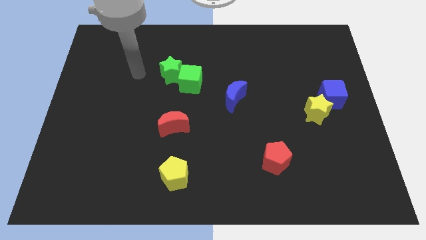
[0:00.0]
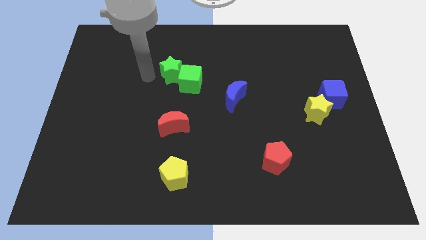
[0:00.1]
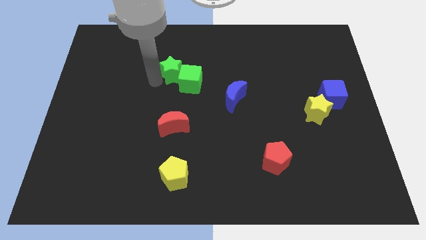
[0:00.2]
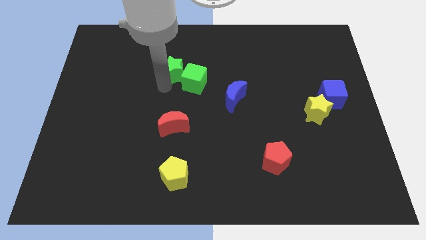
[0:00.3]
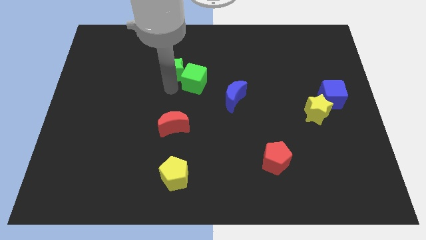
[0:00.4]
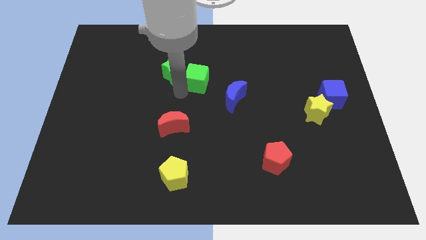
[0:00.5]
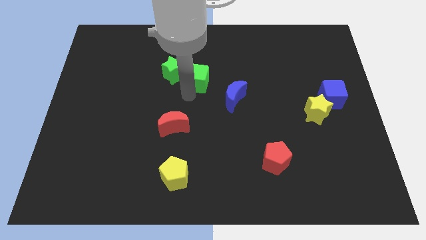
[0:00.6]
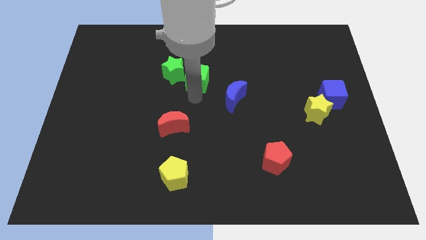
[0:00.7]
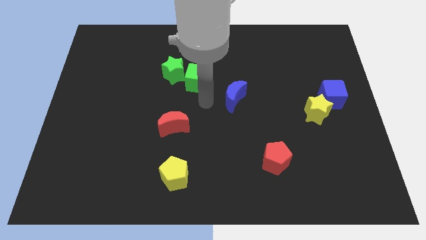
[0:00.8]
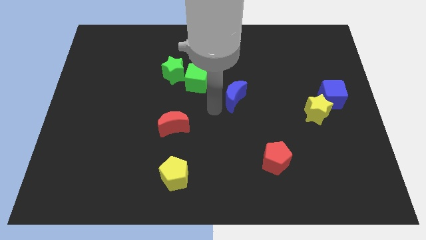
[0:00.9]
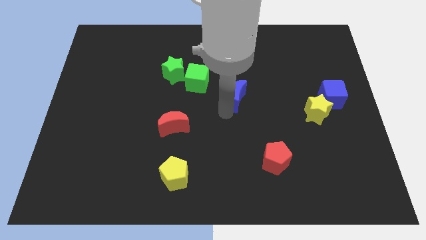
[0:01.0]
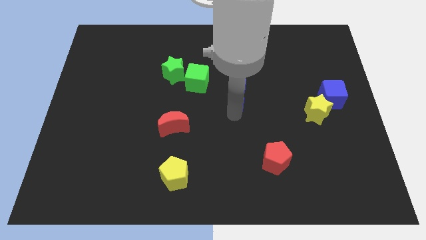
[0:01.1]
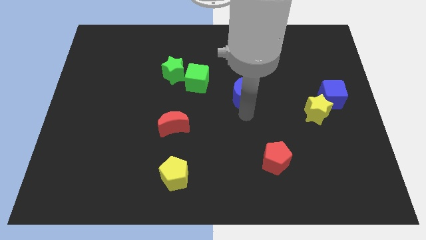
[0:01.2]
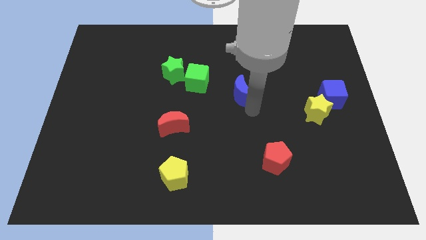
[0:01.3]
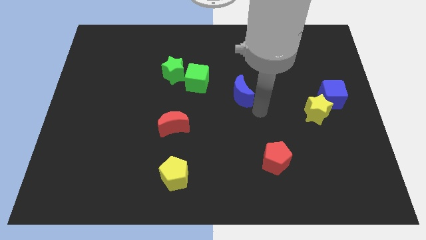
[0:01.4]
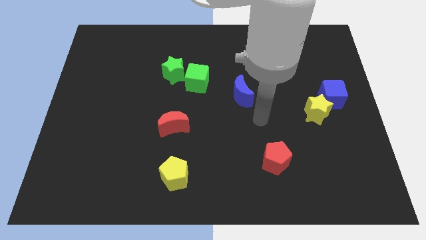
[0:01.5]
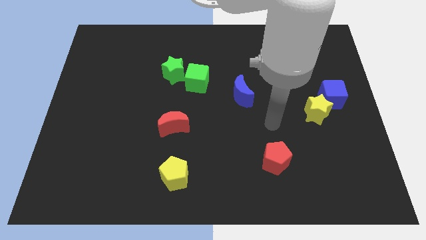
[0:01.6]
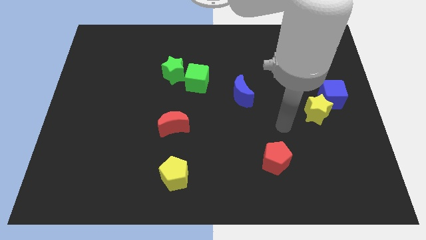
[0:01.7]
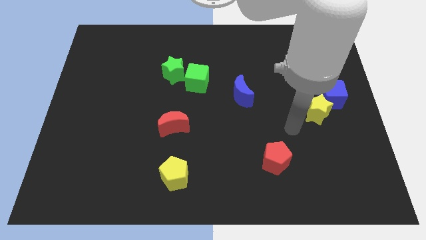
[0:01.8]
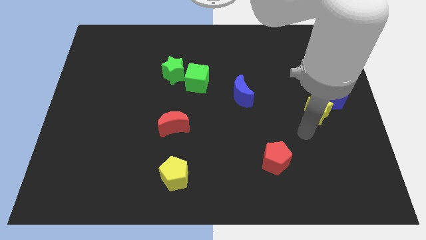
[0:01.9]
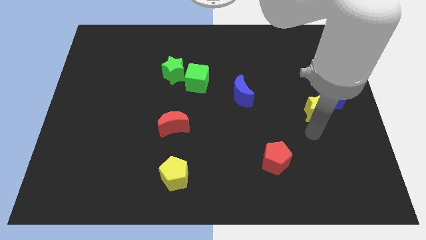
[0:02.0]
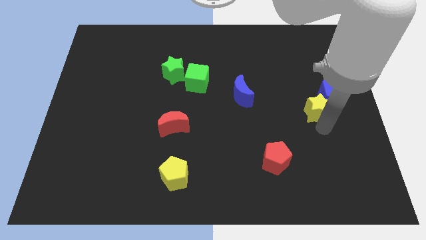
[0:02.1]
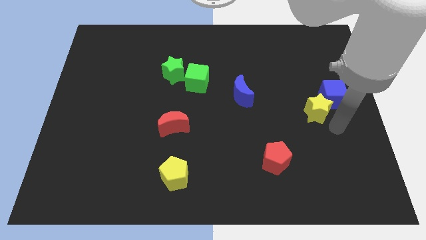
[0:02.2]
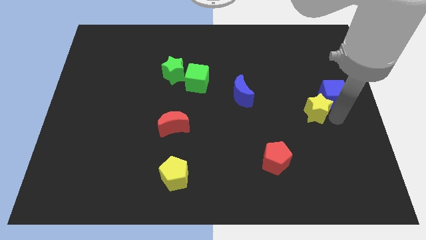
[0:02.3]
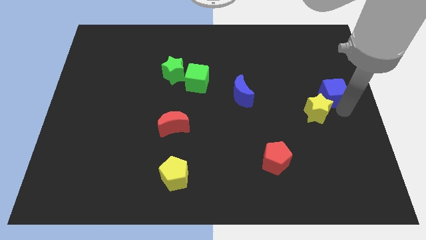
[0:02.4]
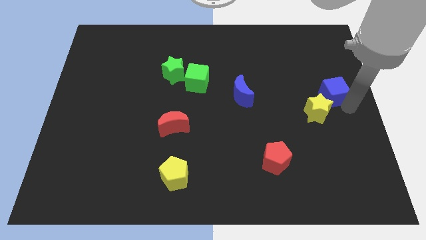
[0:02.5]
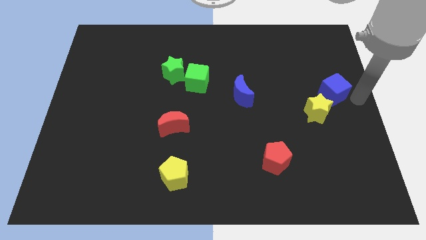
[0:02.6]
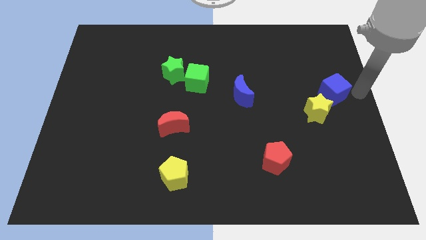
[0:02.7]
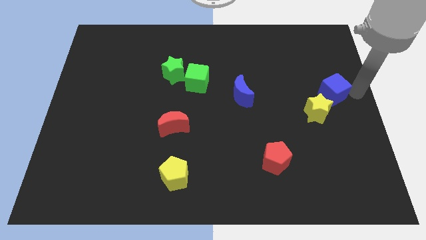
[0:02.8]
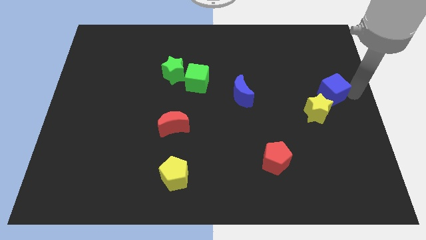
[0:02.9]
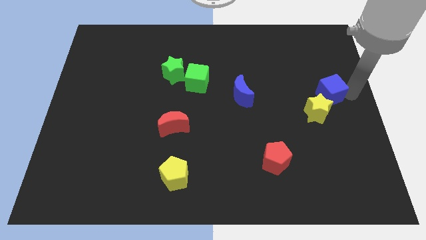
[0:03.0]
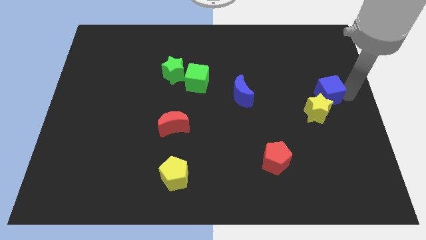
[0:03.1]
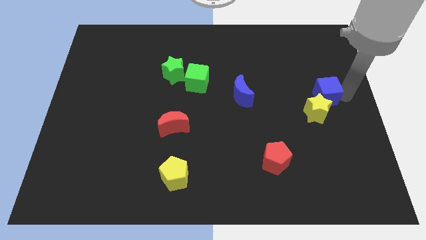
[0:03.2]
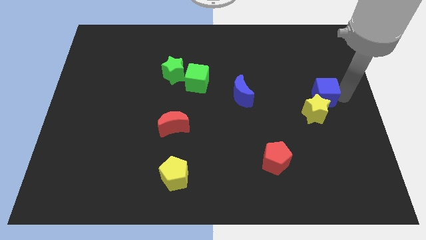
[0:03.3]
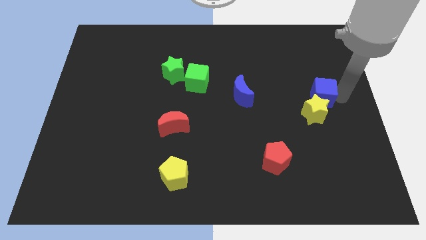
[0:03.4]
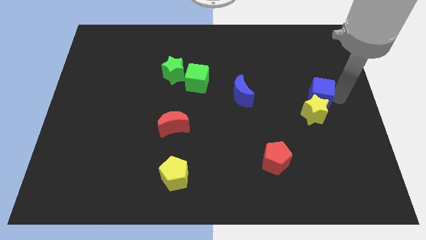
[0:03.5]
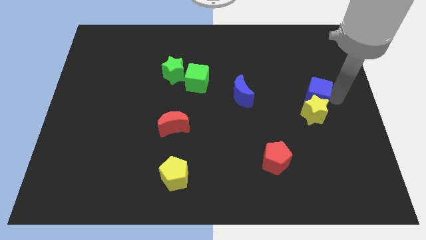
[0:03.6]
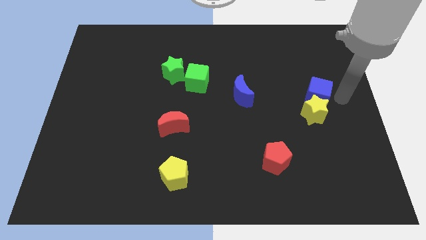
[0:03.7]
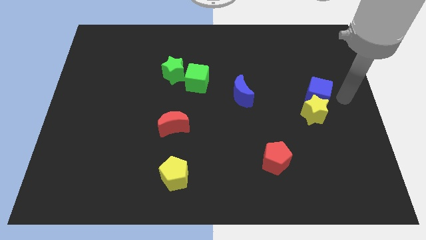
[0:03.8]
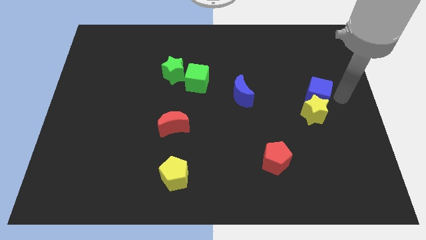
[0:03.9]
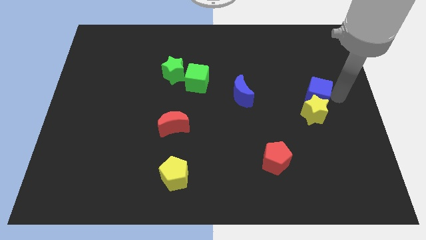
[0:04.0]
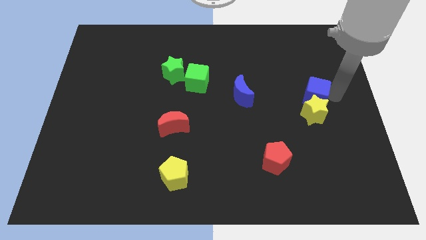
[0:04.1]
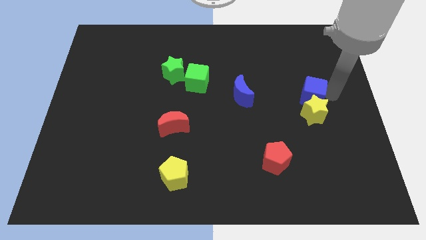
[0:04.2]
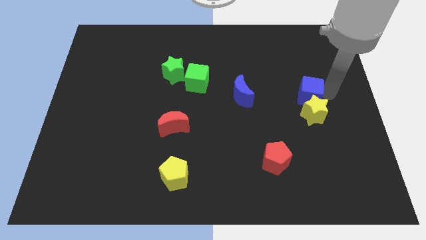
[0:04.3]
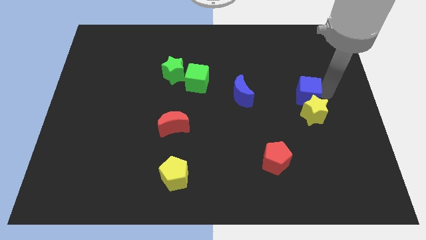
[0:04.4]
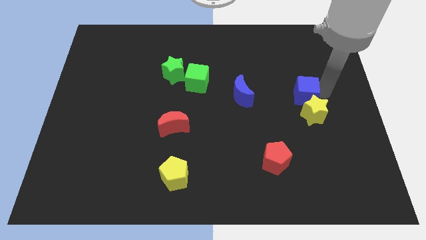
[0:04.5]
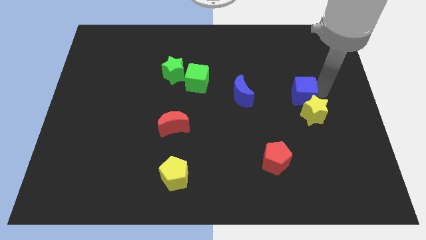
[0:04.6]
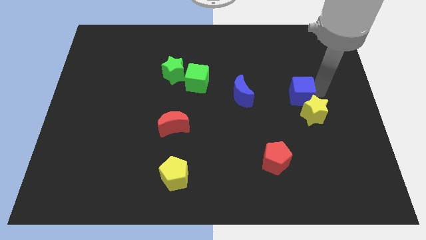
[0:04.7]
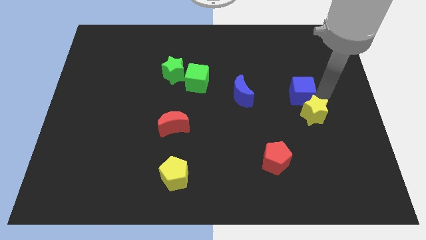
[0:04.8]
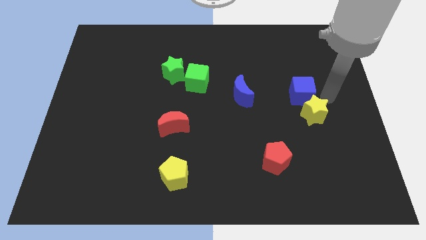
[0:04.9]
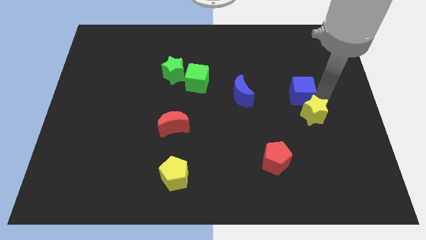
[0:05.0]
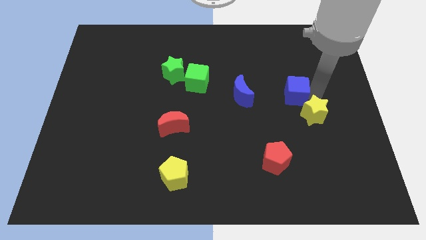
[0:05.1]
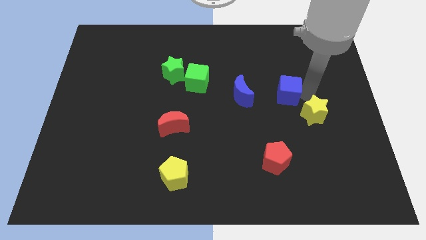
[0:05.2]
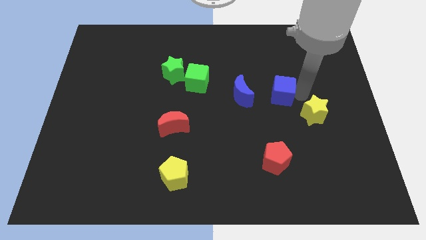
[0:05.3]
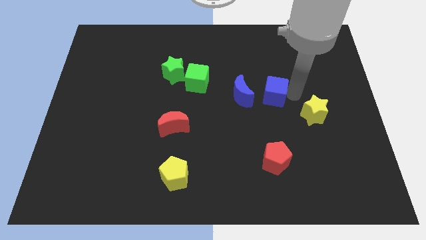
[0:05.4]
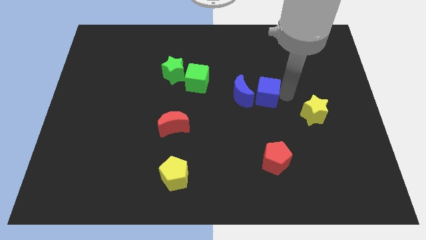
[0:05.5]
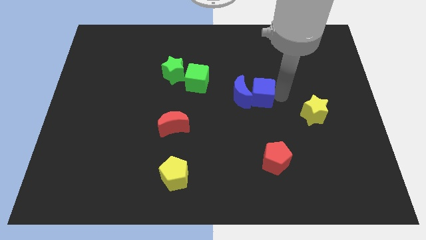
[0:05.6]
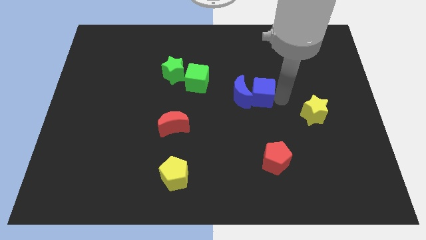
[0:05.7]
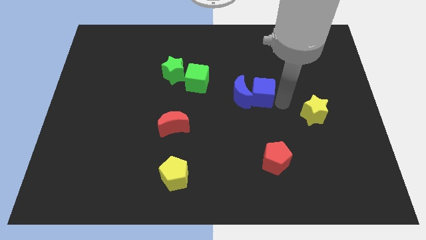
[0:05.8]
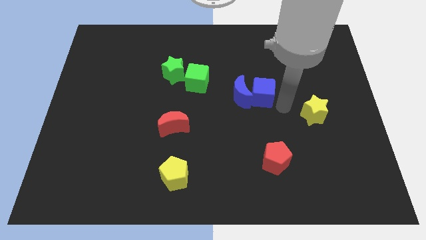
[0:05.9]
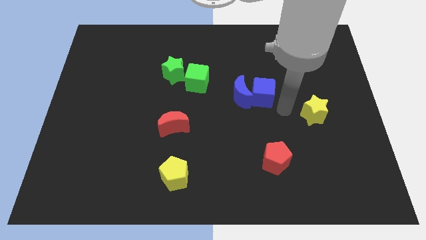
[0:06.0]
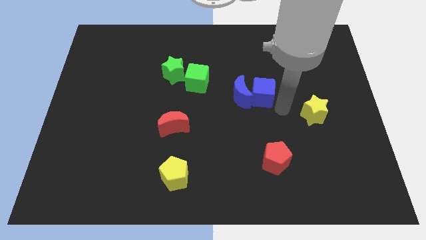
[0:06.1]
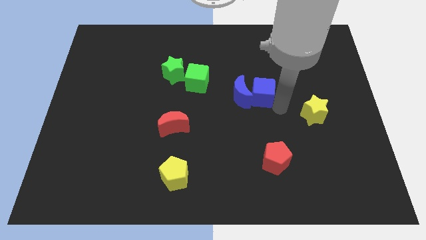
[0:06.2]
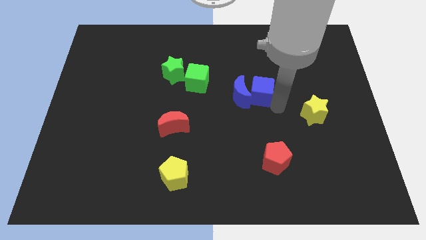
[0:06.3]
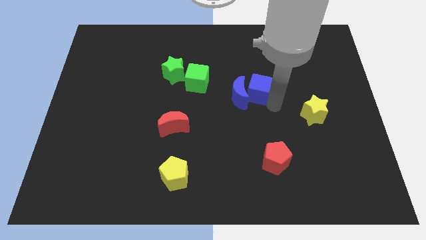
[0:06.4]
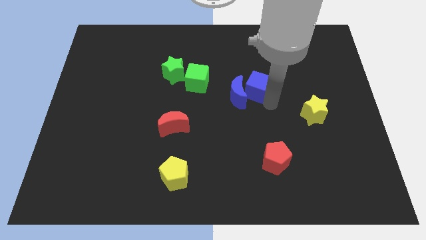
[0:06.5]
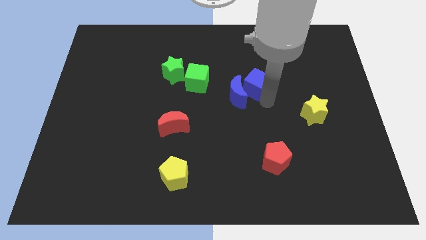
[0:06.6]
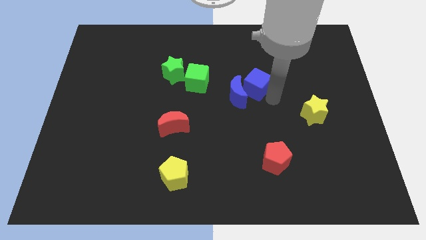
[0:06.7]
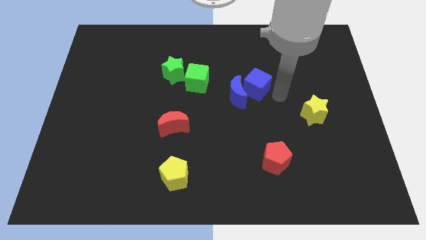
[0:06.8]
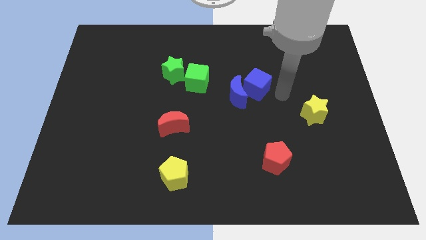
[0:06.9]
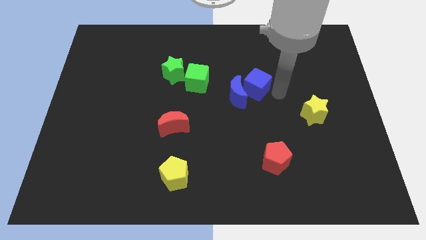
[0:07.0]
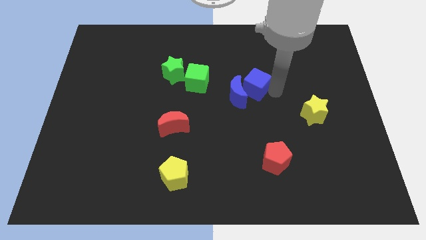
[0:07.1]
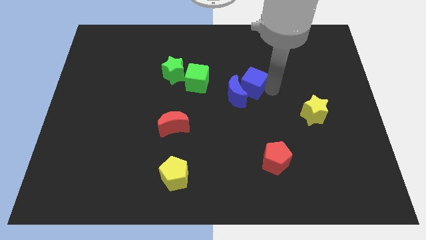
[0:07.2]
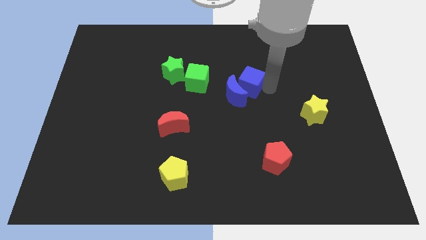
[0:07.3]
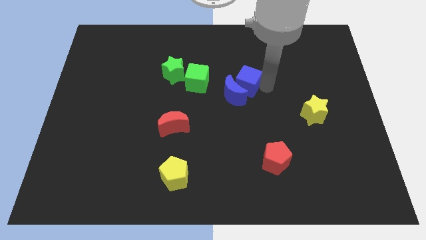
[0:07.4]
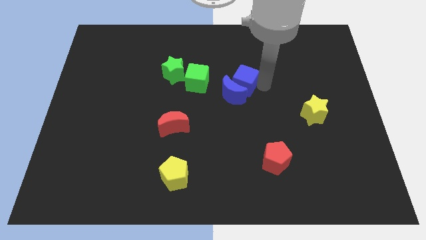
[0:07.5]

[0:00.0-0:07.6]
move the blue cube to the left

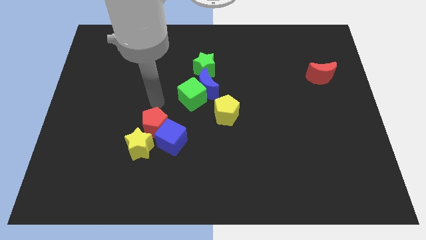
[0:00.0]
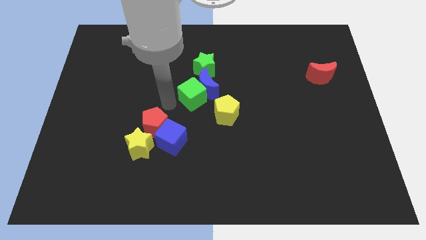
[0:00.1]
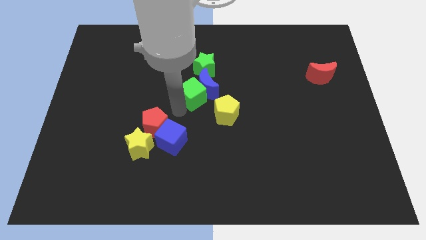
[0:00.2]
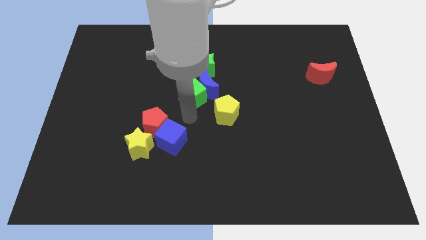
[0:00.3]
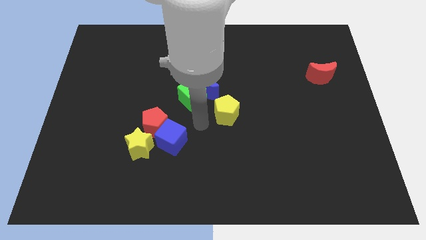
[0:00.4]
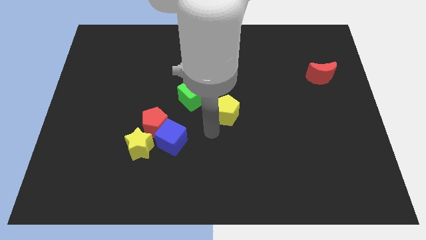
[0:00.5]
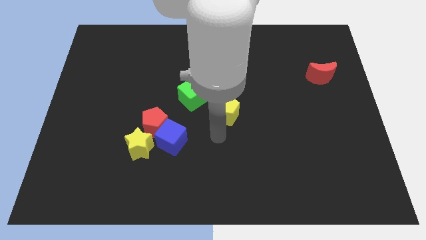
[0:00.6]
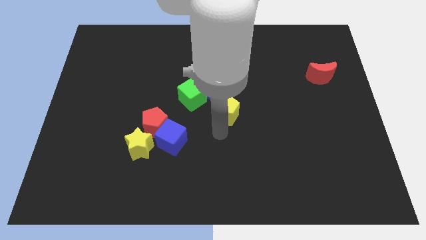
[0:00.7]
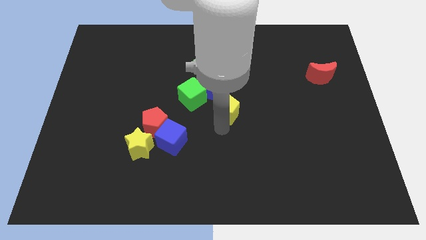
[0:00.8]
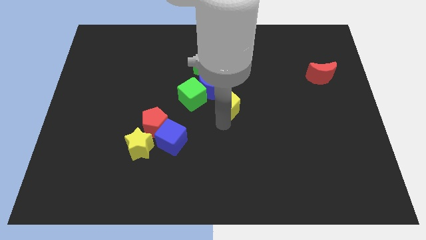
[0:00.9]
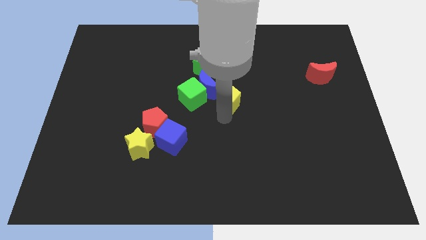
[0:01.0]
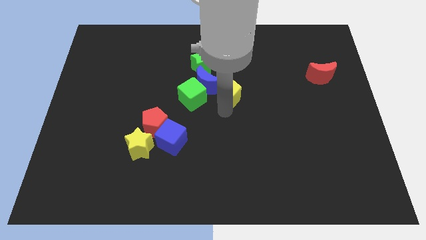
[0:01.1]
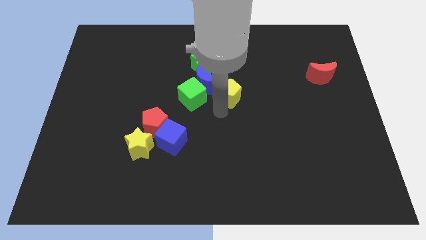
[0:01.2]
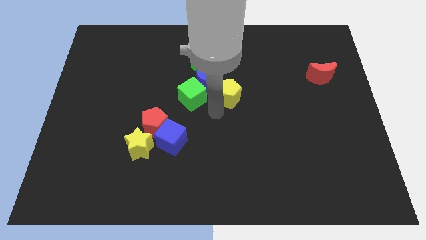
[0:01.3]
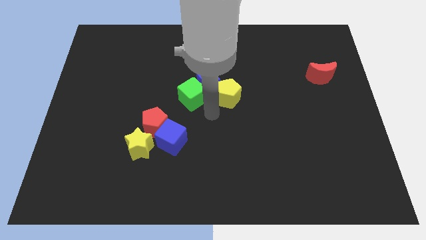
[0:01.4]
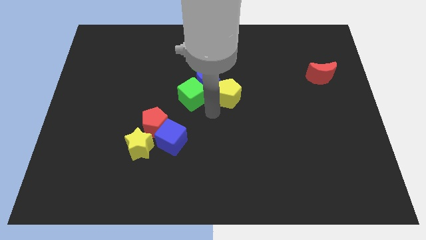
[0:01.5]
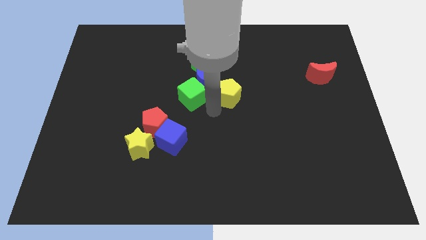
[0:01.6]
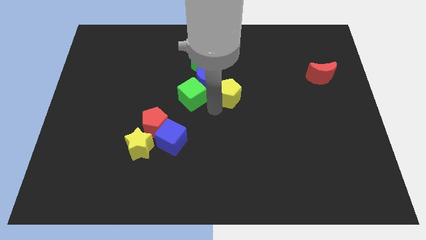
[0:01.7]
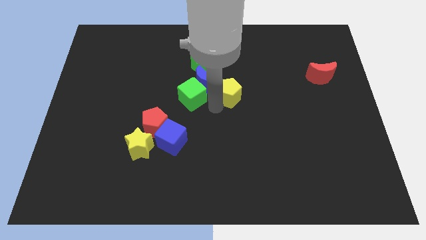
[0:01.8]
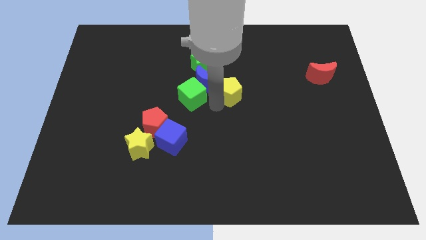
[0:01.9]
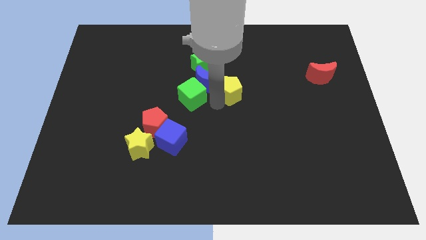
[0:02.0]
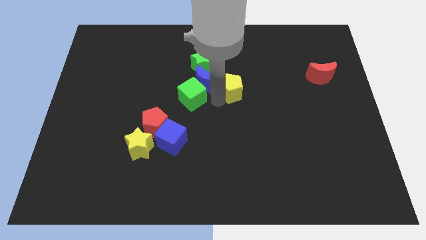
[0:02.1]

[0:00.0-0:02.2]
move the yellow pentagon a little up
